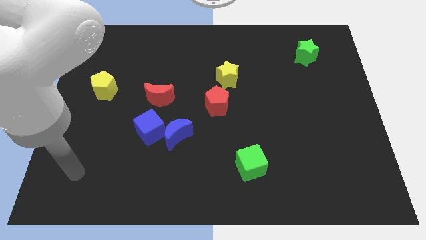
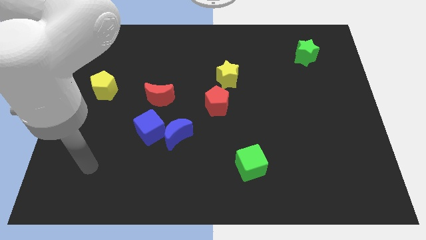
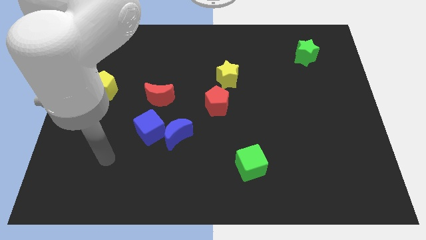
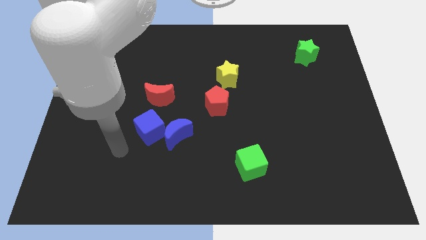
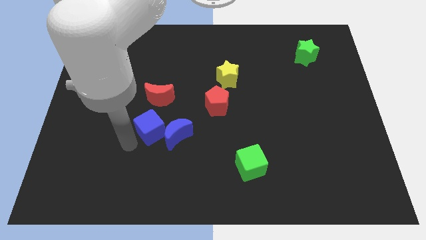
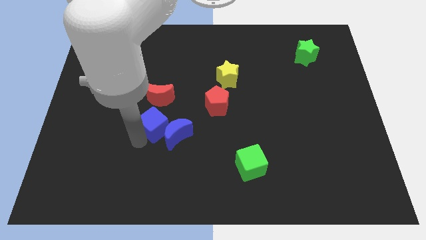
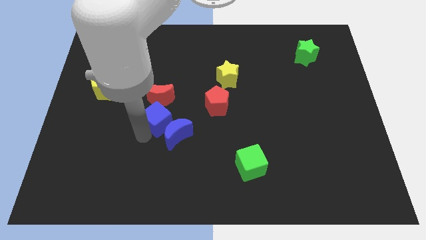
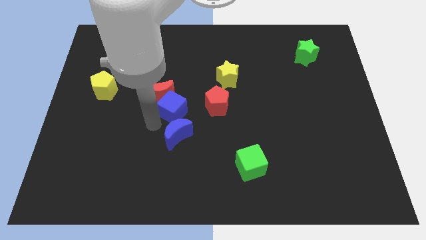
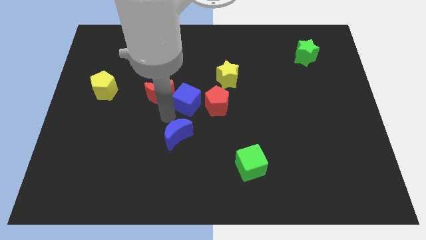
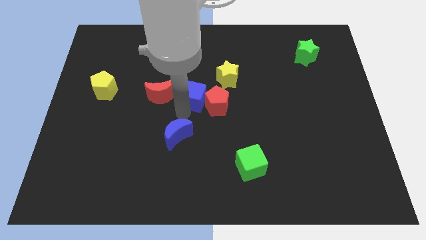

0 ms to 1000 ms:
move the blue moon away from the blue cube

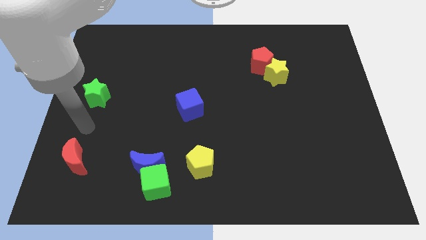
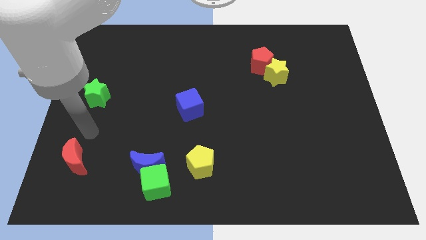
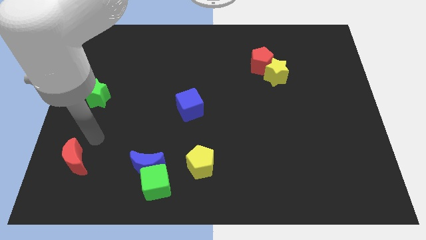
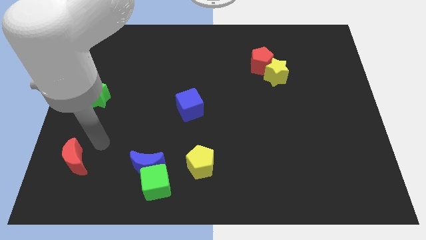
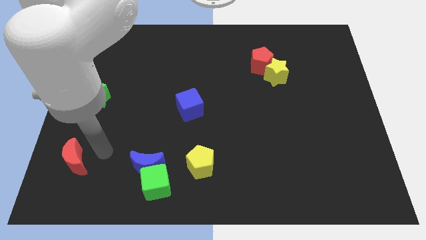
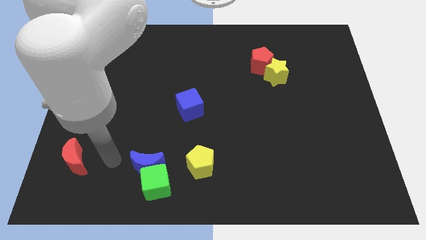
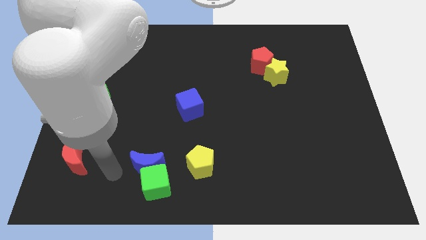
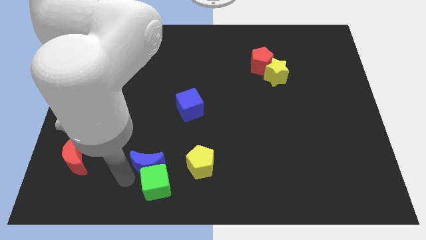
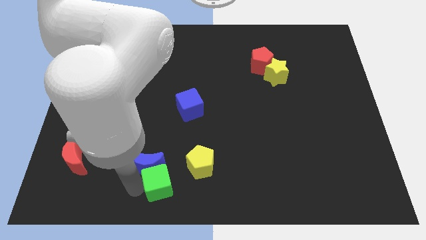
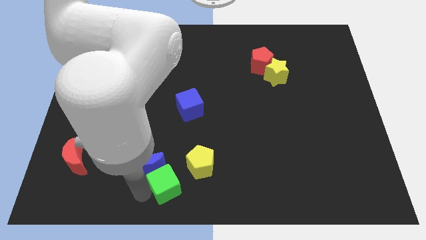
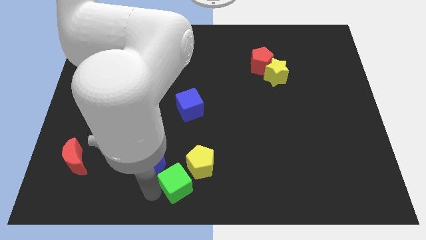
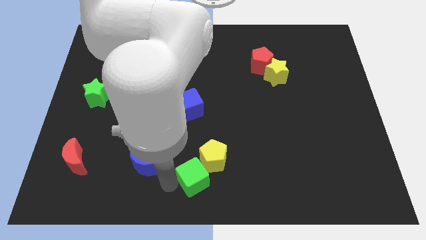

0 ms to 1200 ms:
pull the blue moon apart from the green cube

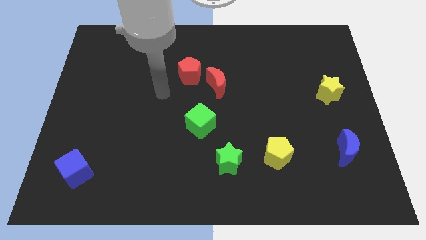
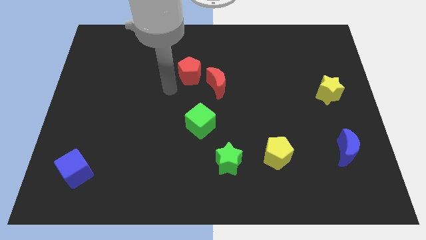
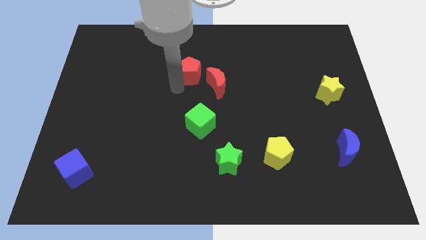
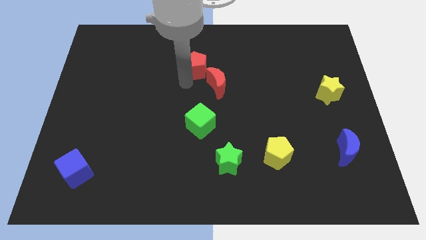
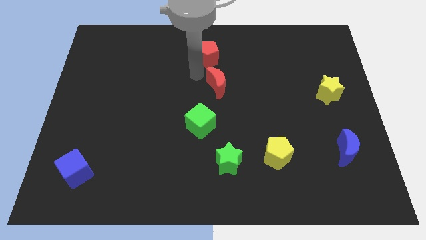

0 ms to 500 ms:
separate the red moon from the red pentagon

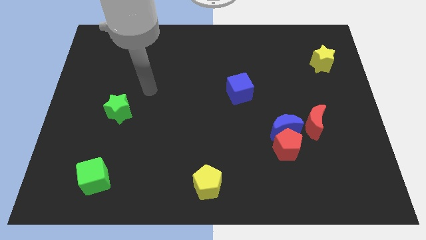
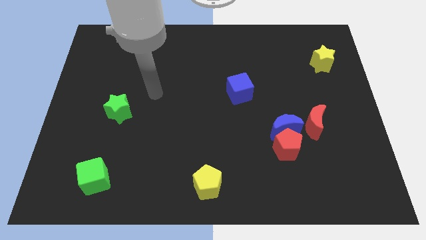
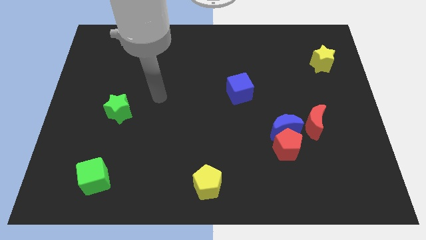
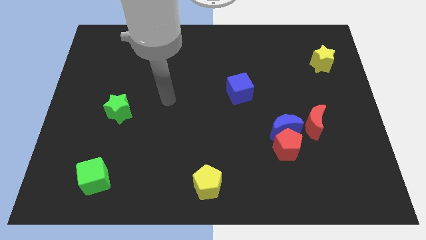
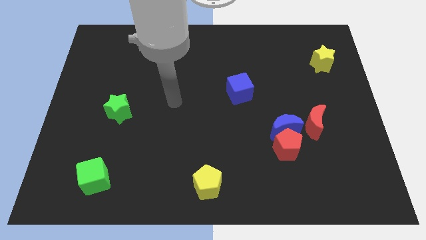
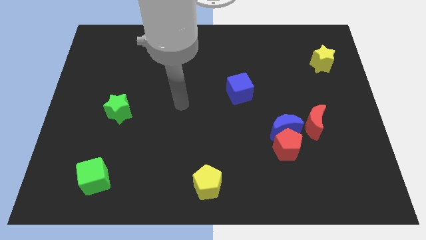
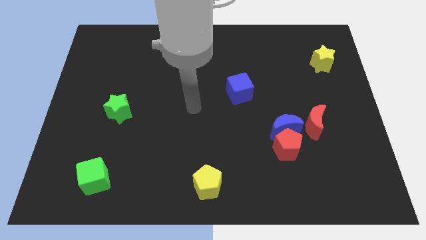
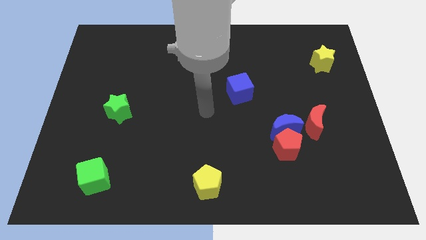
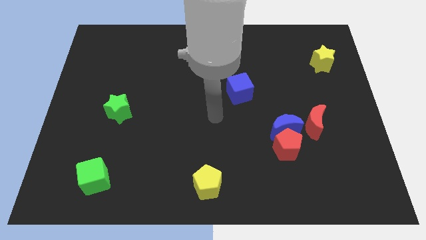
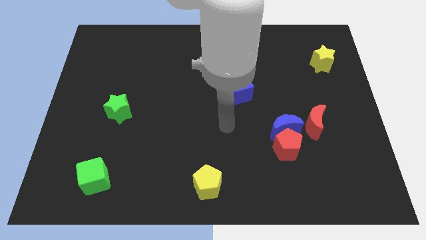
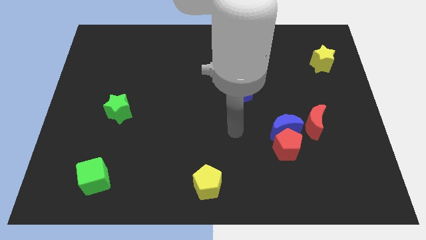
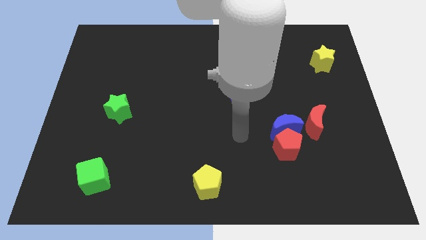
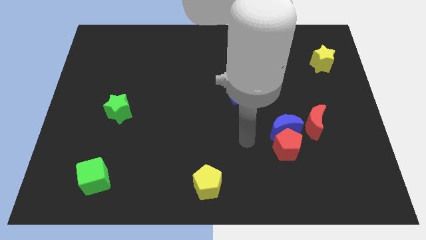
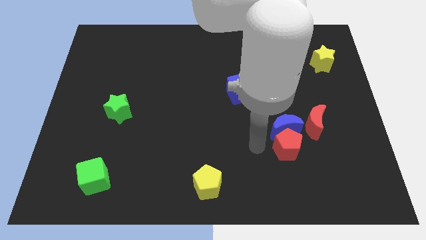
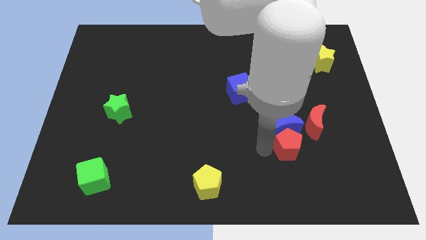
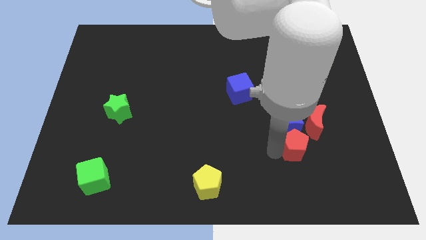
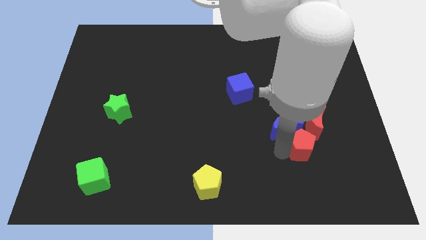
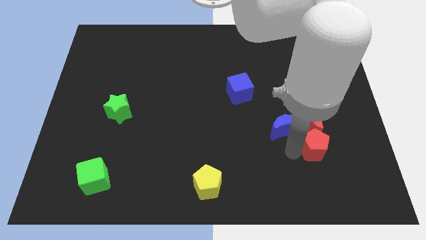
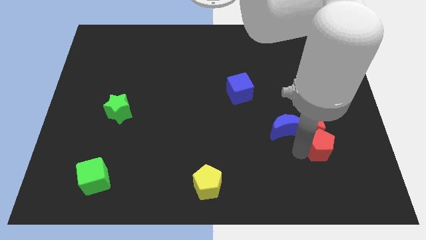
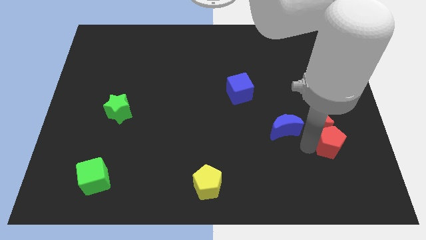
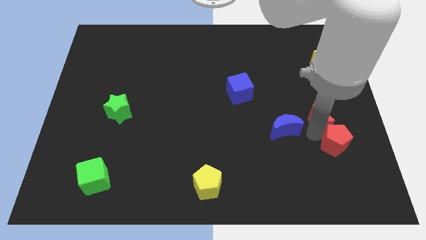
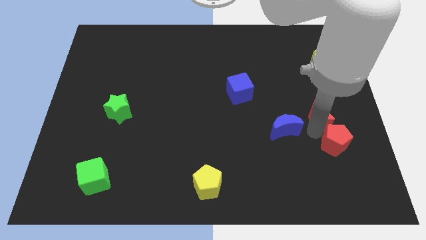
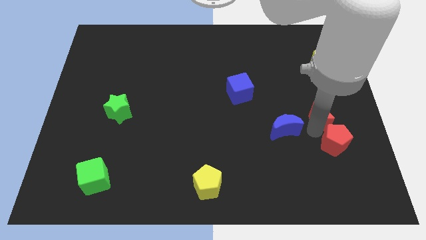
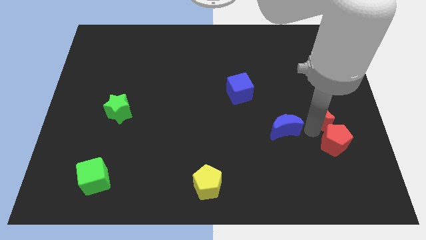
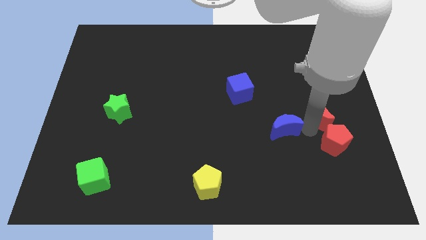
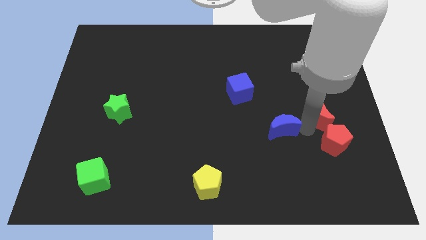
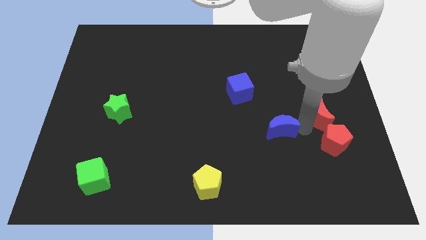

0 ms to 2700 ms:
pull the blue moon apart from the red pentagon and red moon

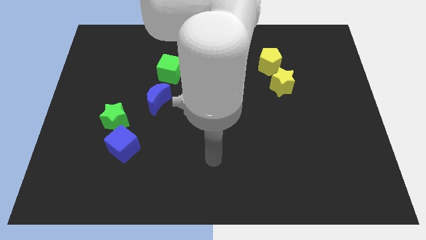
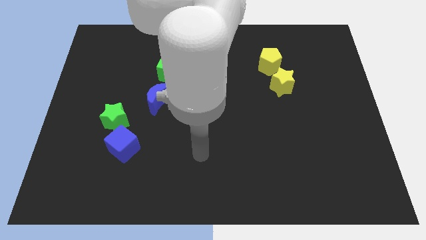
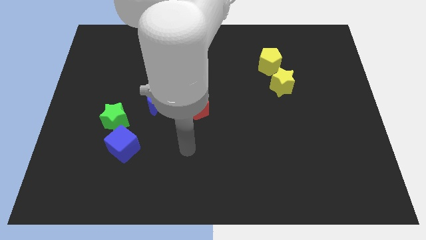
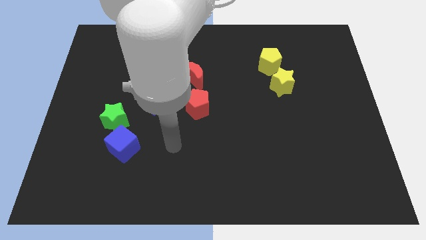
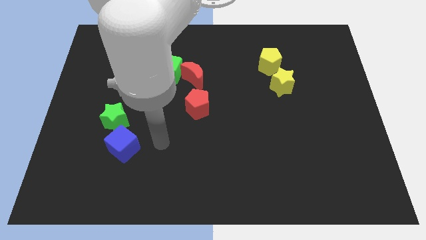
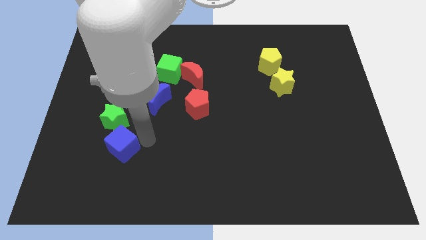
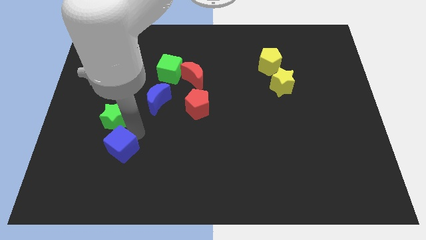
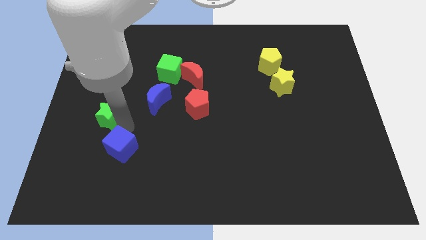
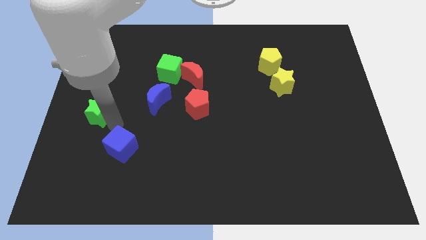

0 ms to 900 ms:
pull the blue cube apart from the green star

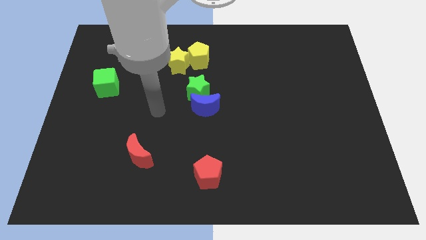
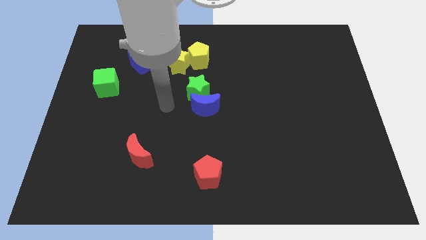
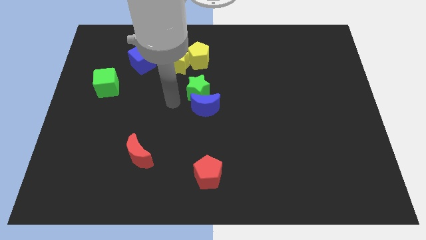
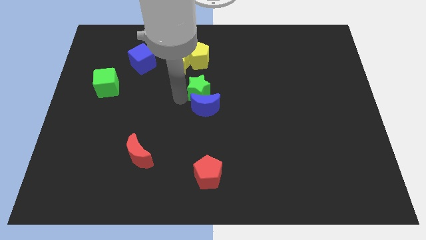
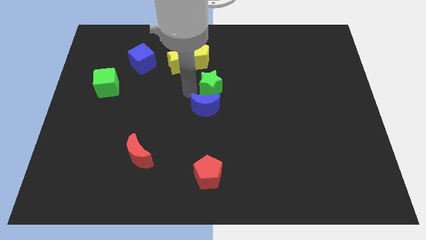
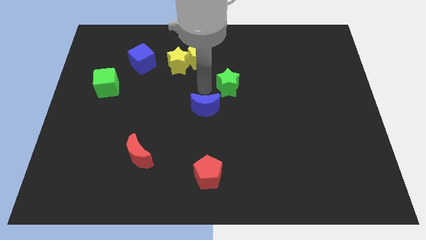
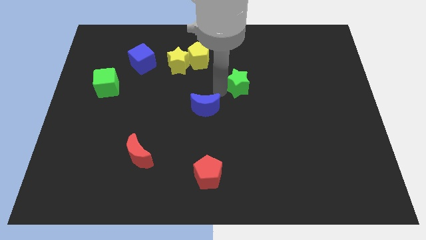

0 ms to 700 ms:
pull the blue moon apart from the green star

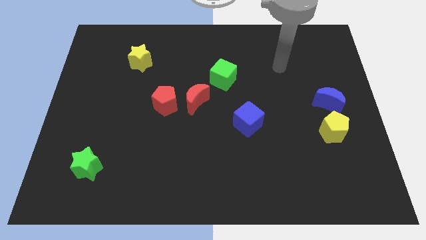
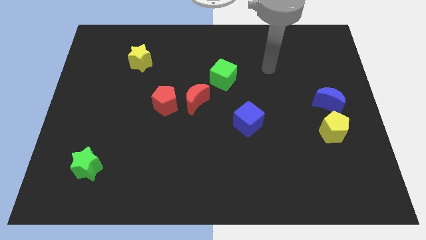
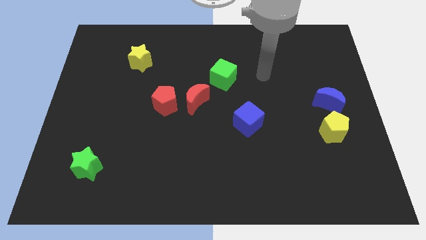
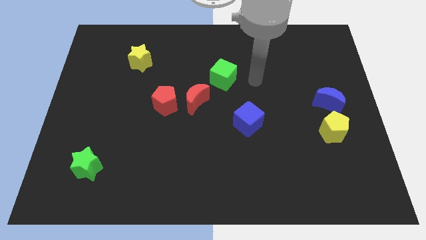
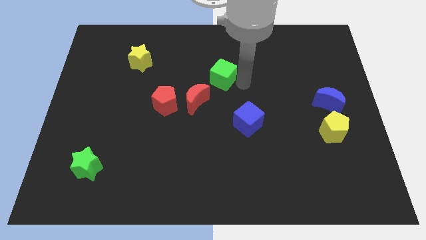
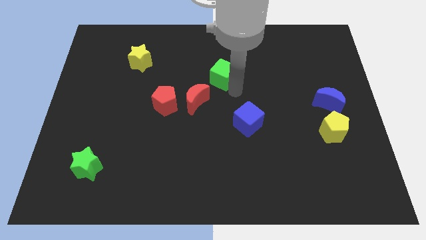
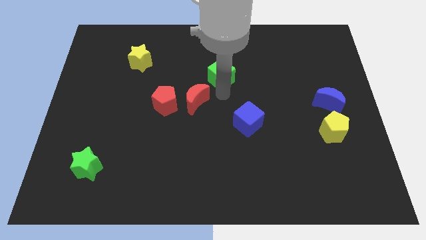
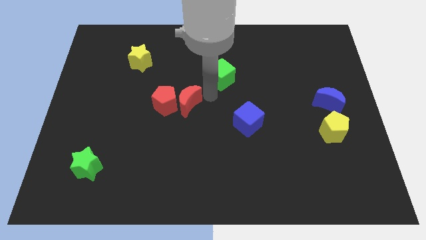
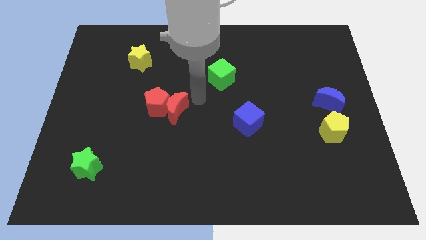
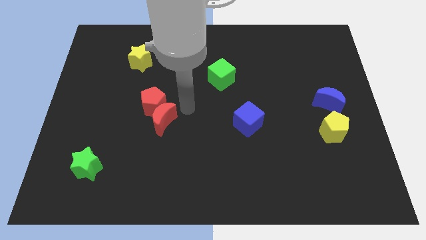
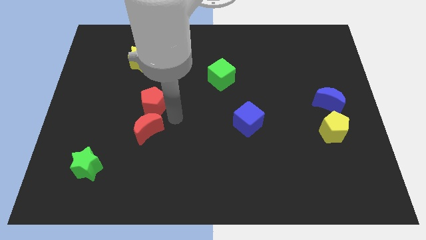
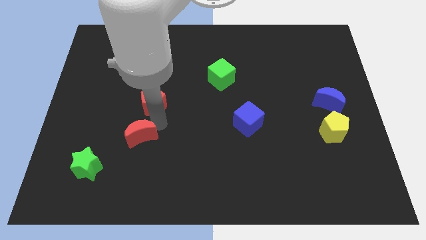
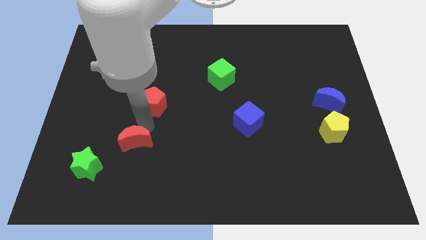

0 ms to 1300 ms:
move the red pentagon away from the red moon

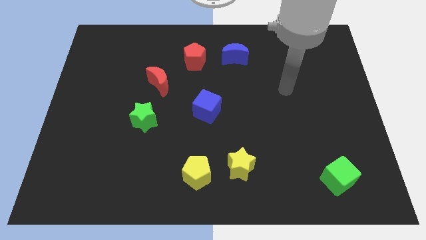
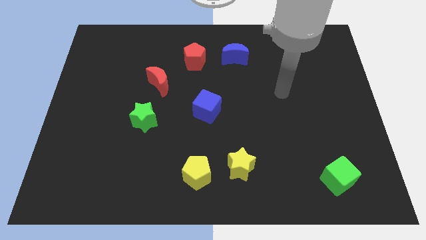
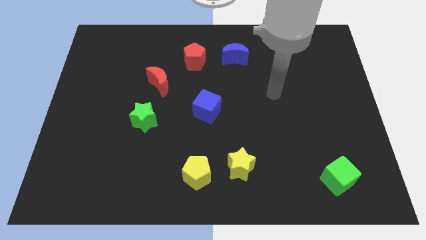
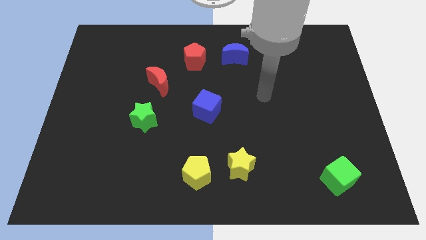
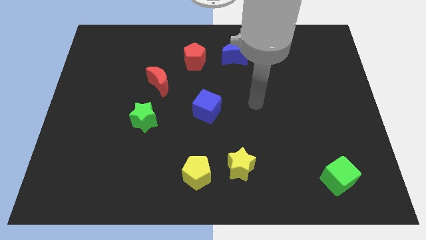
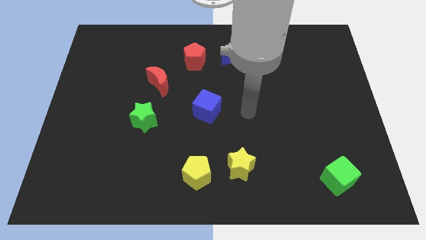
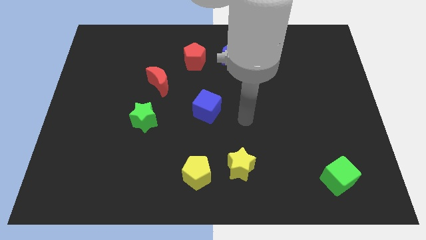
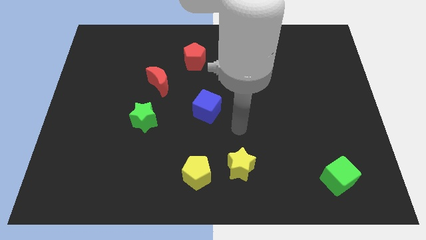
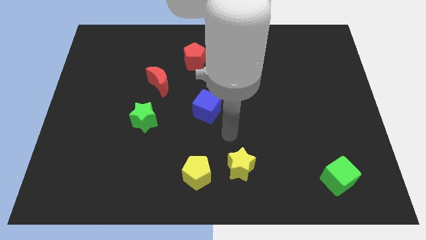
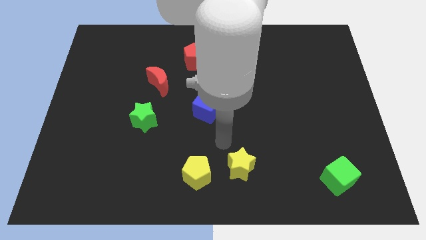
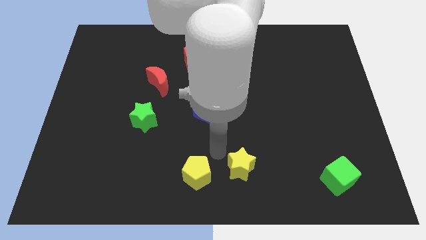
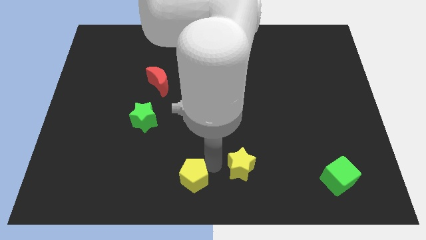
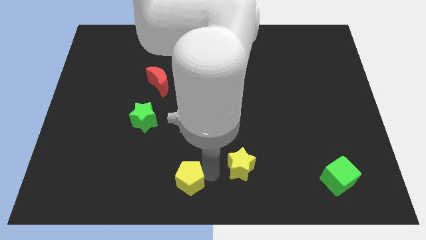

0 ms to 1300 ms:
move the yellow star away from the yellow pentagon
